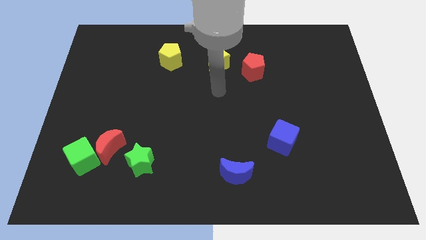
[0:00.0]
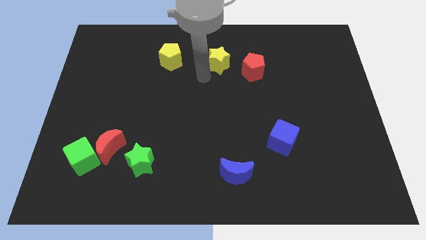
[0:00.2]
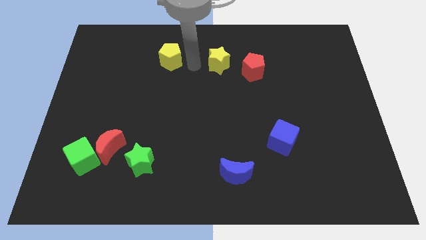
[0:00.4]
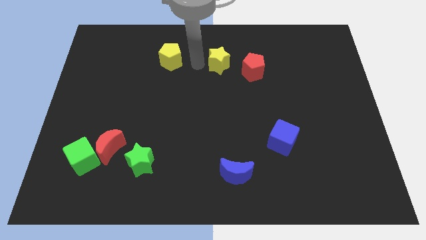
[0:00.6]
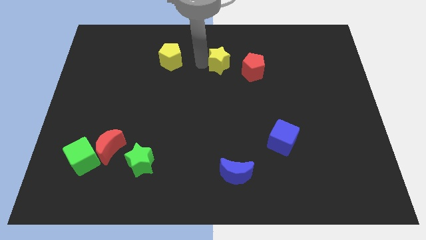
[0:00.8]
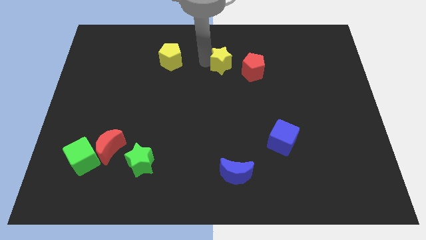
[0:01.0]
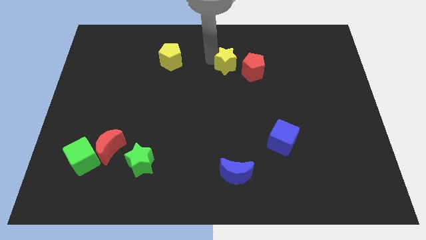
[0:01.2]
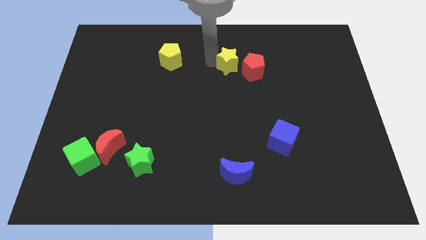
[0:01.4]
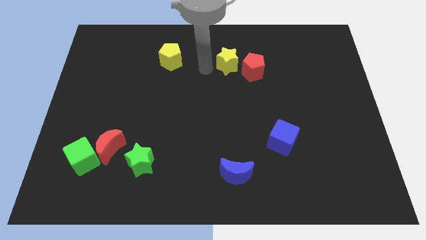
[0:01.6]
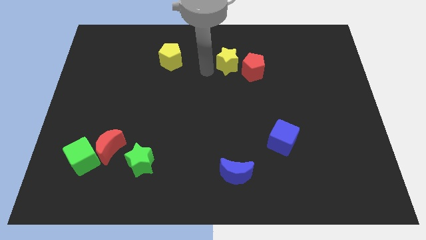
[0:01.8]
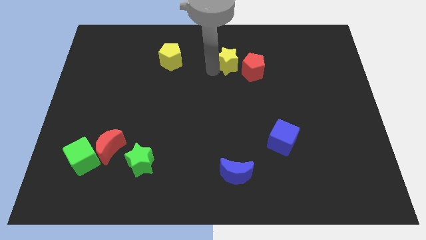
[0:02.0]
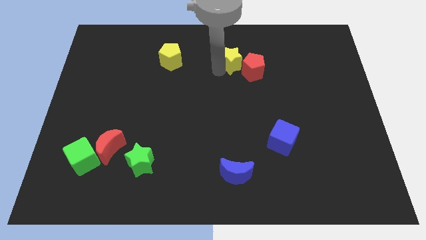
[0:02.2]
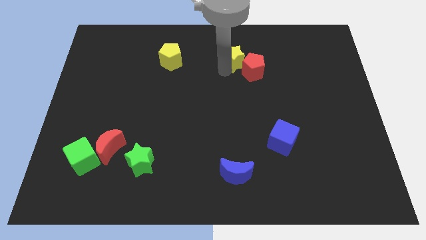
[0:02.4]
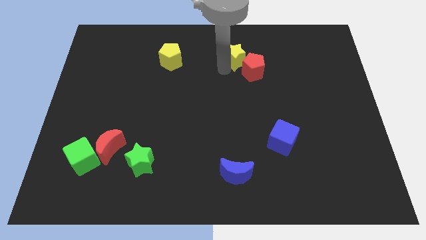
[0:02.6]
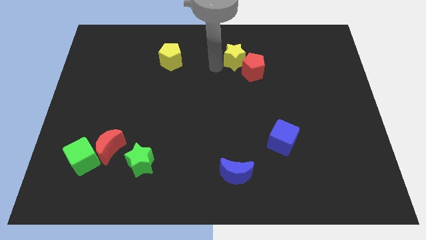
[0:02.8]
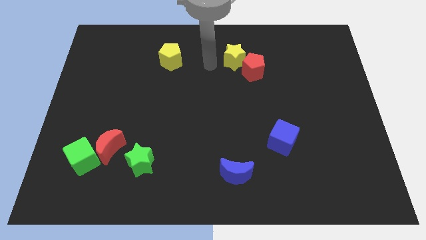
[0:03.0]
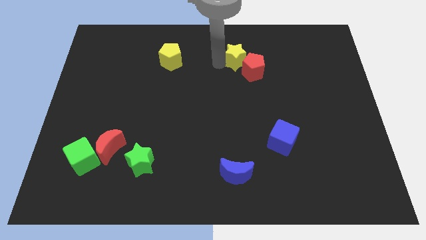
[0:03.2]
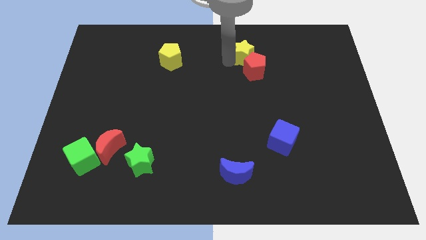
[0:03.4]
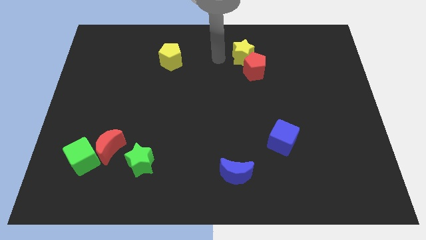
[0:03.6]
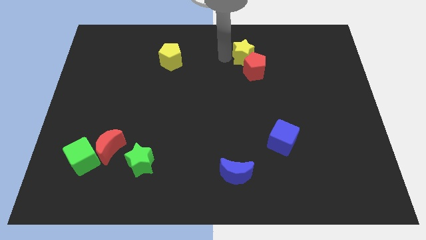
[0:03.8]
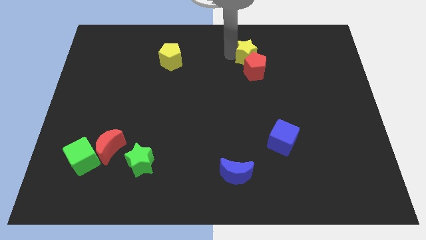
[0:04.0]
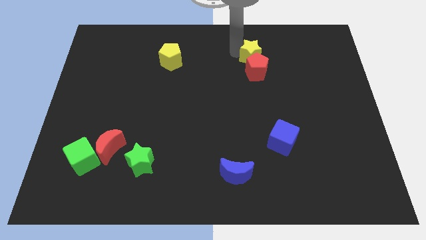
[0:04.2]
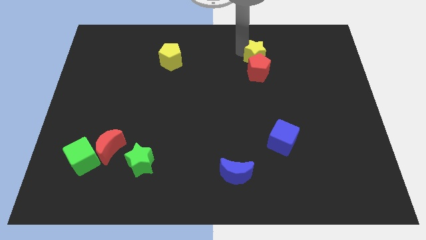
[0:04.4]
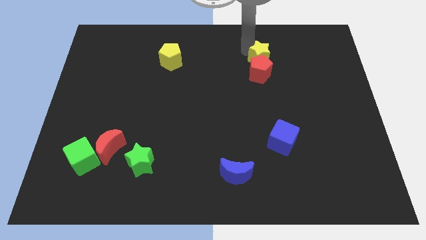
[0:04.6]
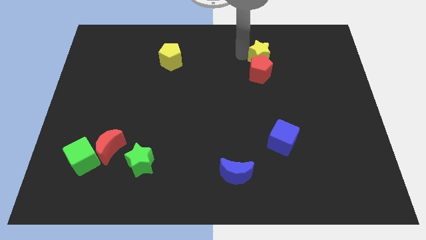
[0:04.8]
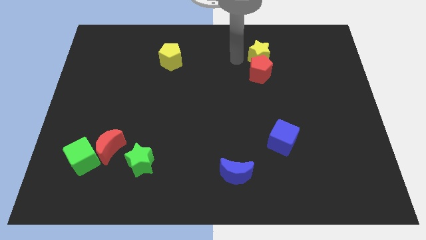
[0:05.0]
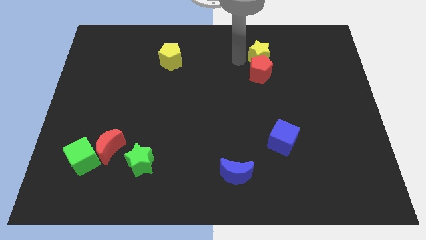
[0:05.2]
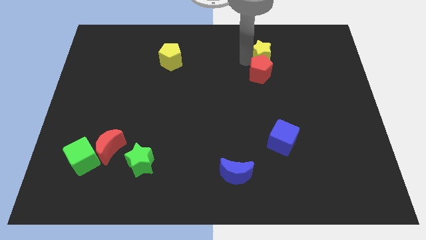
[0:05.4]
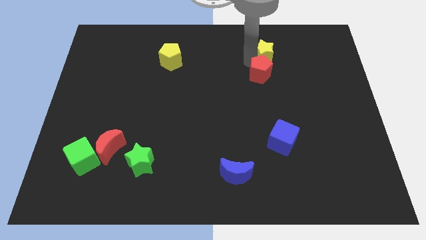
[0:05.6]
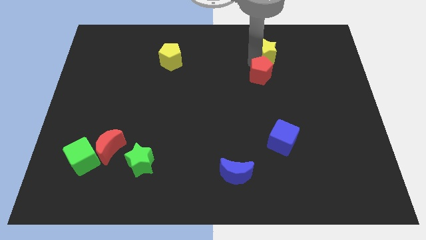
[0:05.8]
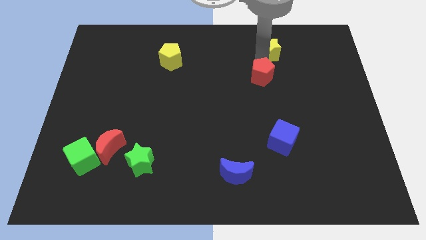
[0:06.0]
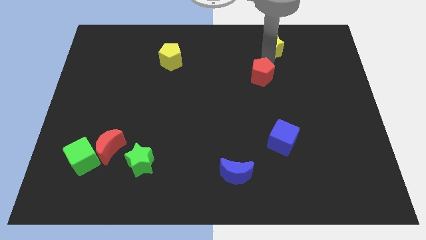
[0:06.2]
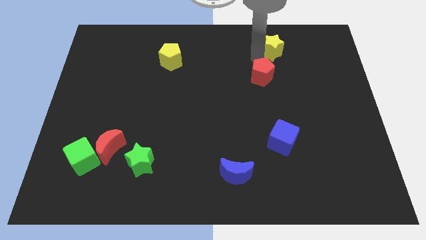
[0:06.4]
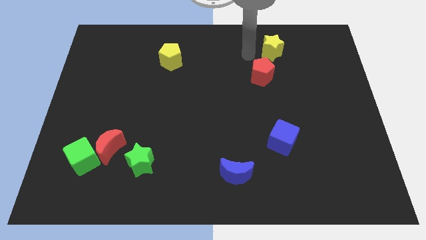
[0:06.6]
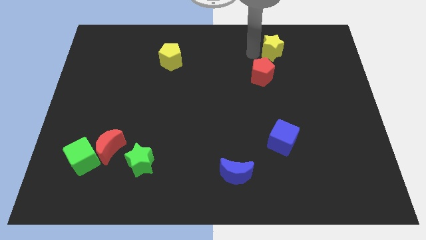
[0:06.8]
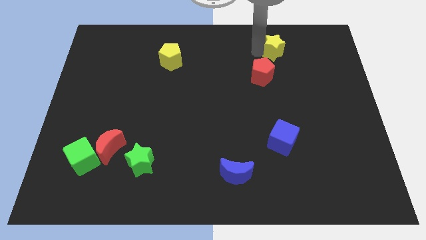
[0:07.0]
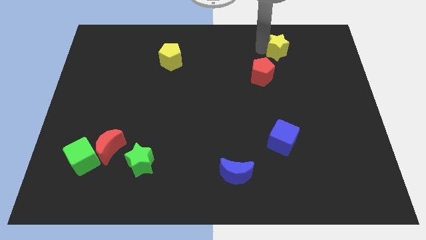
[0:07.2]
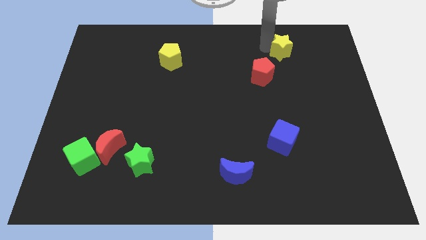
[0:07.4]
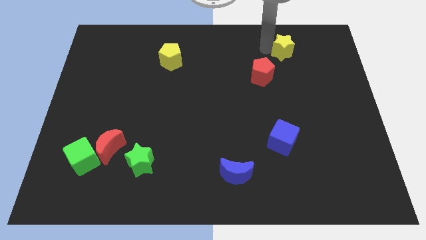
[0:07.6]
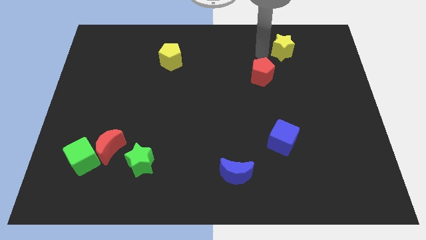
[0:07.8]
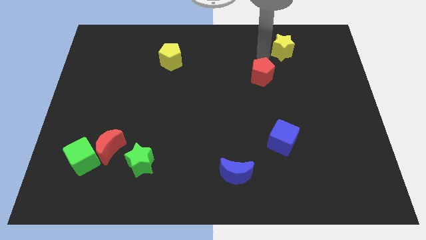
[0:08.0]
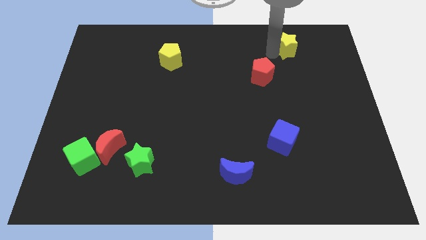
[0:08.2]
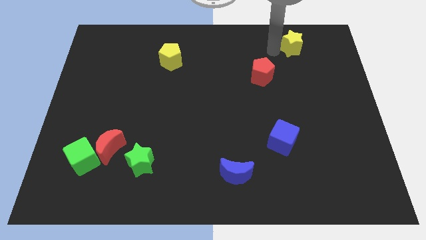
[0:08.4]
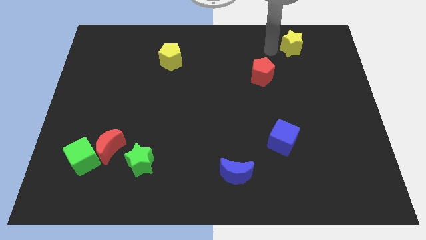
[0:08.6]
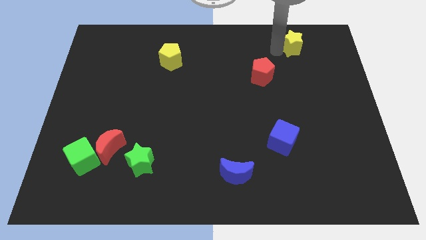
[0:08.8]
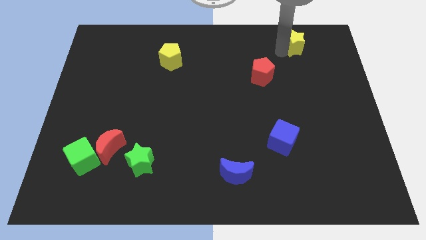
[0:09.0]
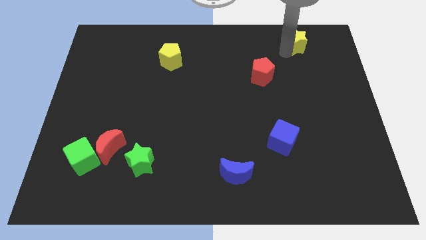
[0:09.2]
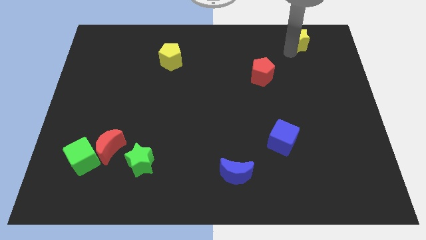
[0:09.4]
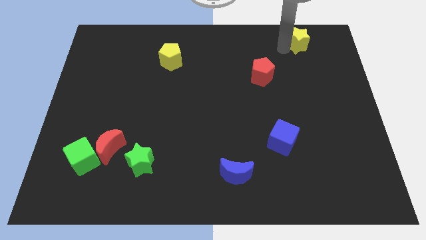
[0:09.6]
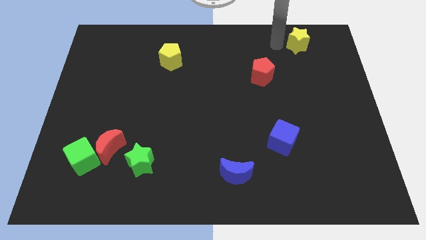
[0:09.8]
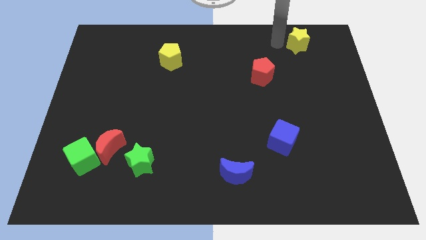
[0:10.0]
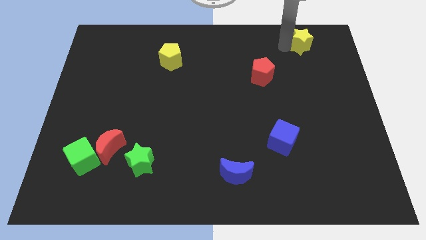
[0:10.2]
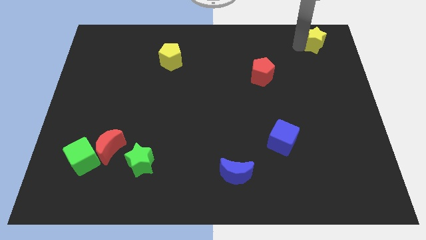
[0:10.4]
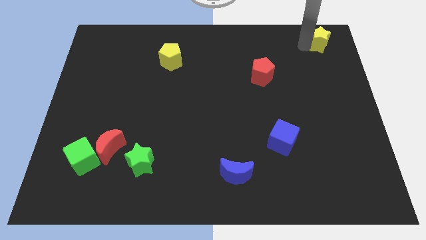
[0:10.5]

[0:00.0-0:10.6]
put the yellow star to the top right

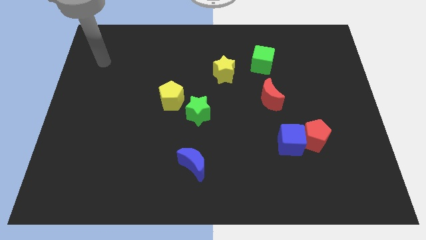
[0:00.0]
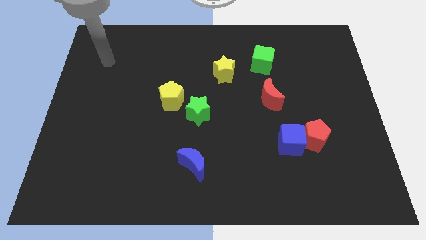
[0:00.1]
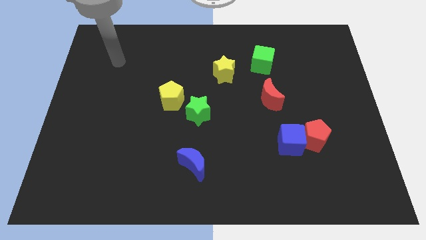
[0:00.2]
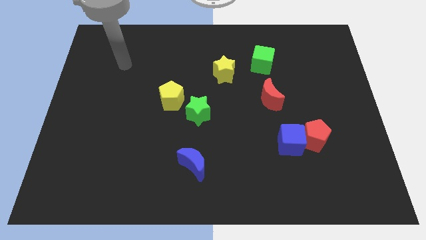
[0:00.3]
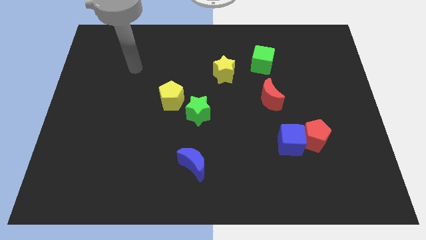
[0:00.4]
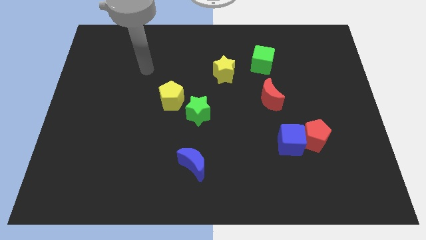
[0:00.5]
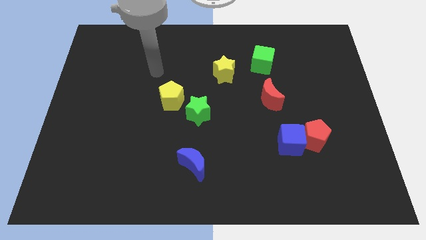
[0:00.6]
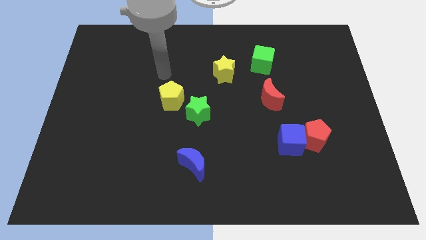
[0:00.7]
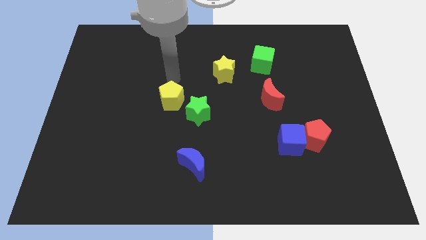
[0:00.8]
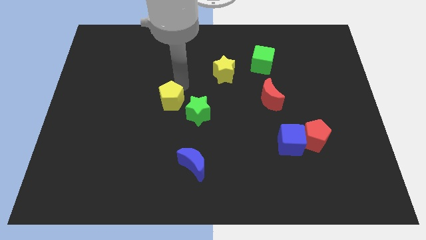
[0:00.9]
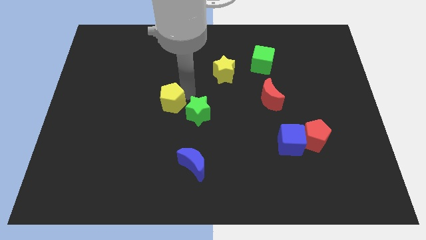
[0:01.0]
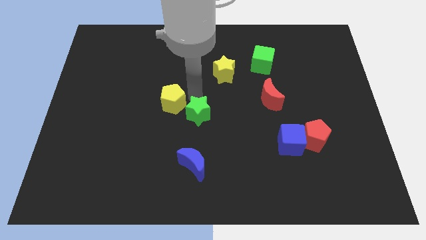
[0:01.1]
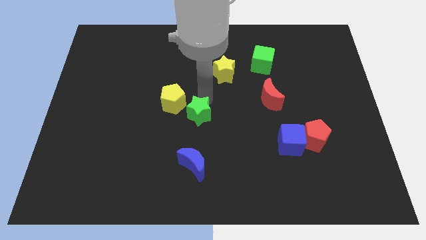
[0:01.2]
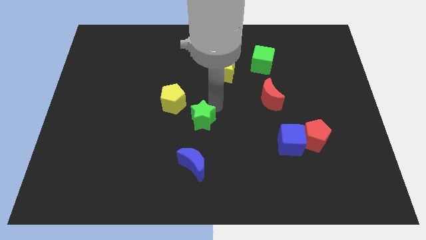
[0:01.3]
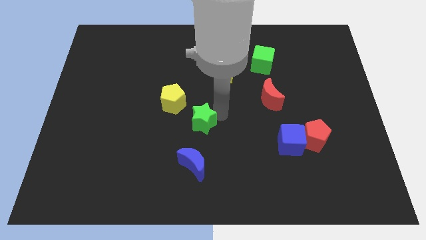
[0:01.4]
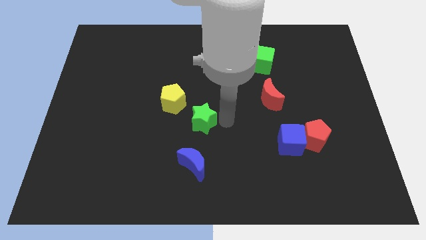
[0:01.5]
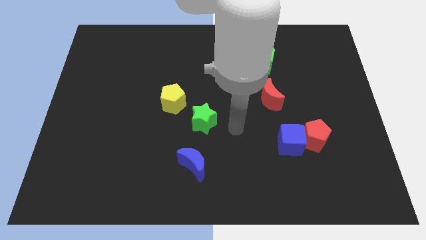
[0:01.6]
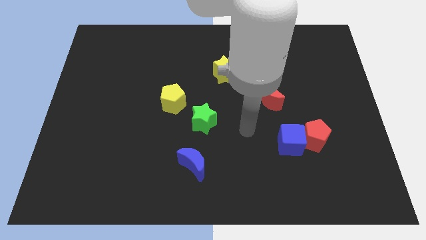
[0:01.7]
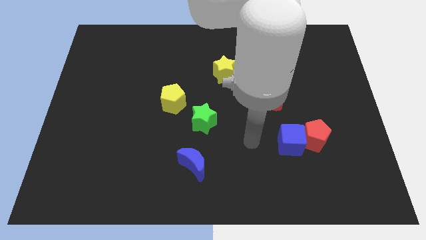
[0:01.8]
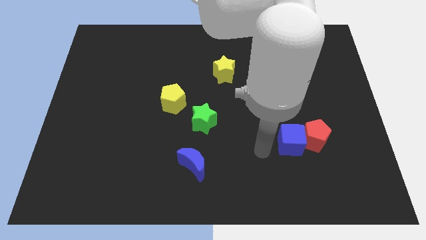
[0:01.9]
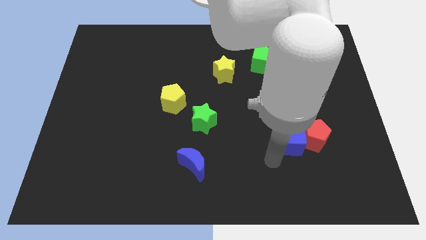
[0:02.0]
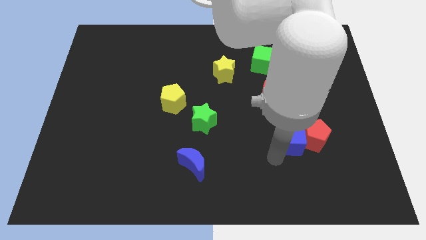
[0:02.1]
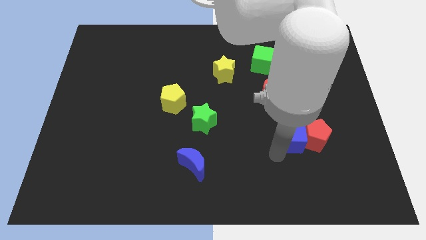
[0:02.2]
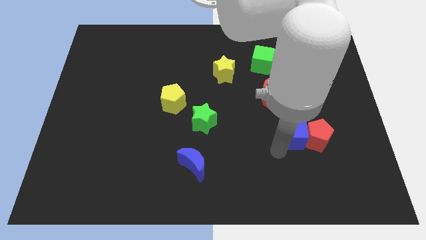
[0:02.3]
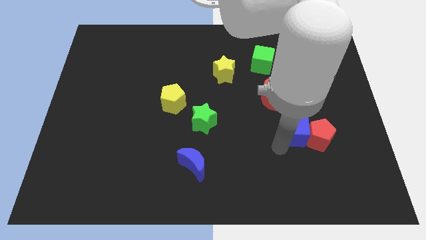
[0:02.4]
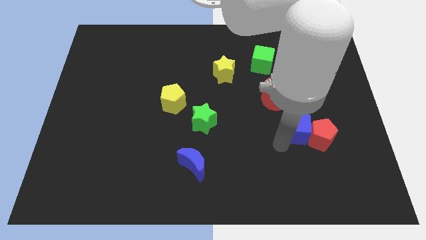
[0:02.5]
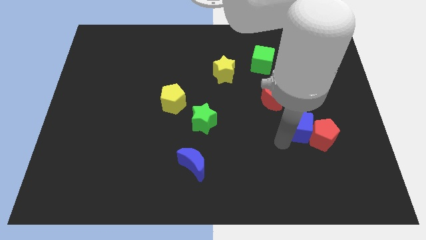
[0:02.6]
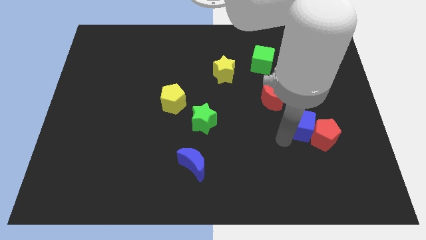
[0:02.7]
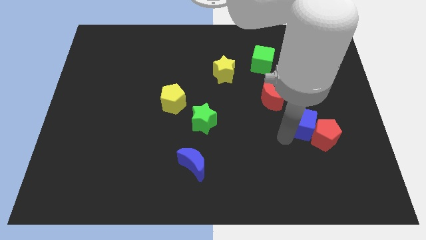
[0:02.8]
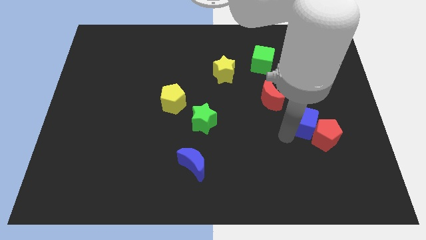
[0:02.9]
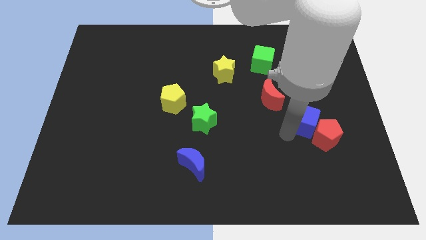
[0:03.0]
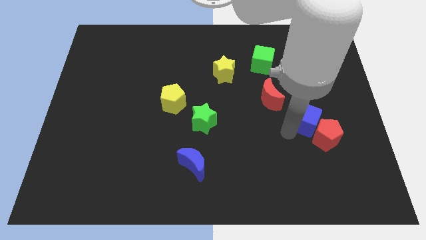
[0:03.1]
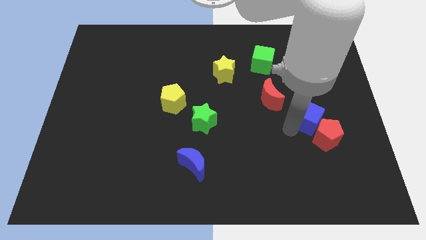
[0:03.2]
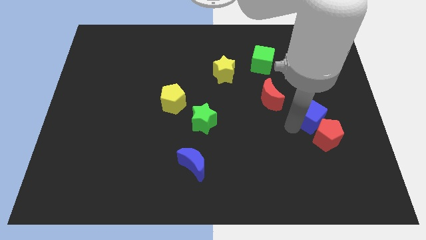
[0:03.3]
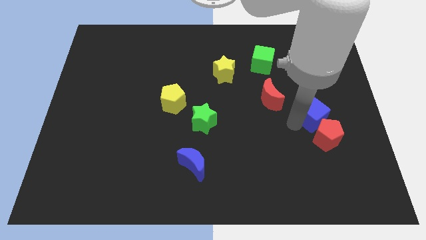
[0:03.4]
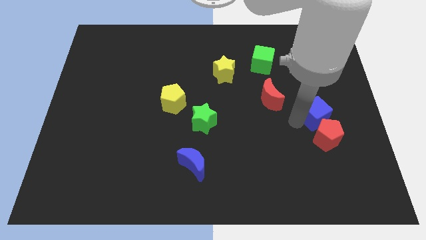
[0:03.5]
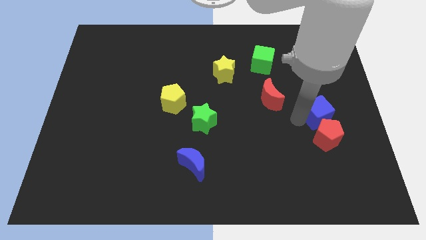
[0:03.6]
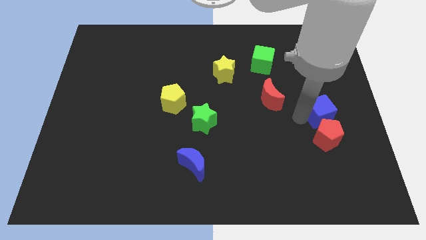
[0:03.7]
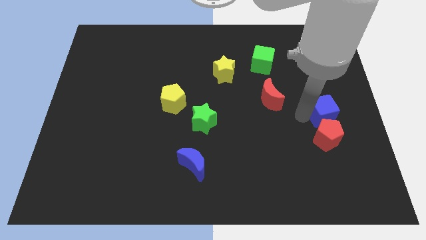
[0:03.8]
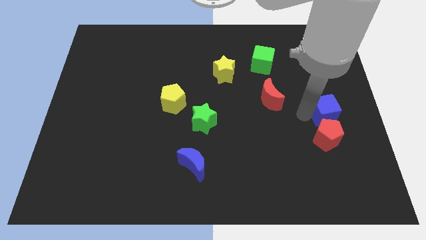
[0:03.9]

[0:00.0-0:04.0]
put the blue cube to the center right
